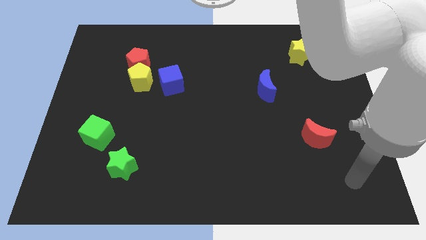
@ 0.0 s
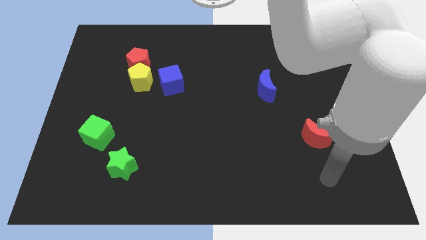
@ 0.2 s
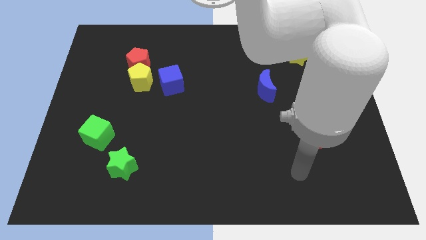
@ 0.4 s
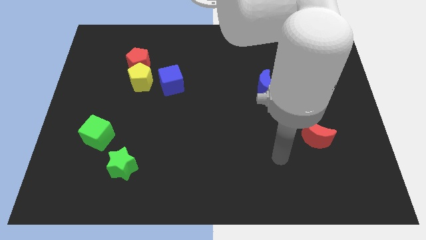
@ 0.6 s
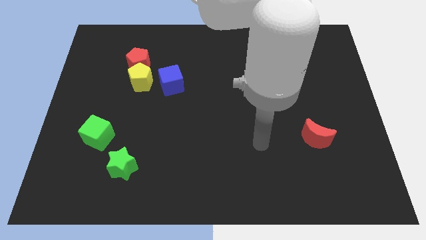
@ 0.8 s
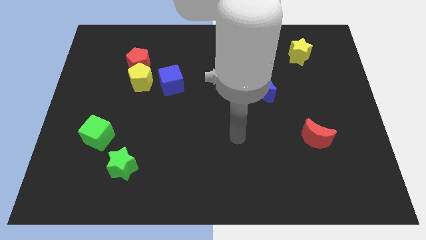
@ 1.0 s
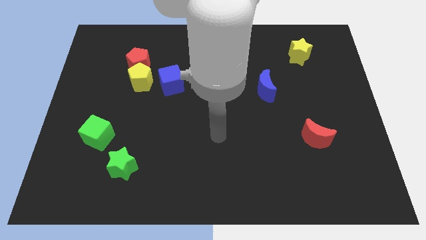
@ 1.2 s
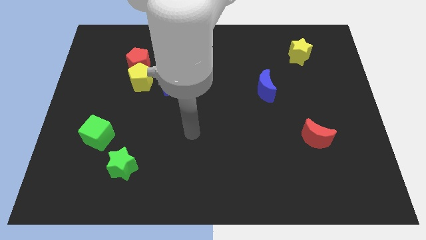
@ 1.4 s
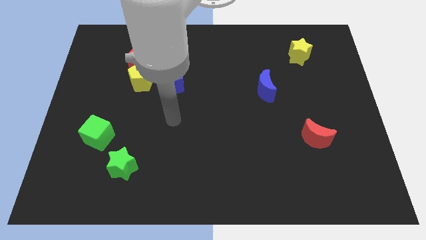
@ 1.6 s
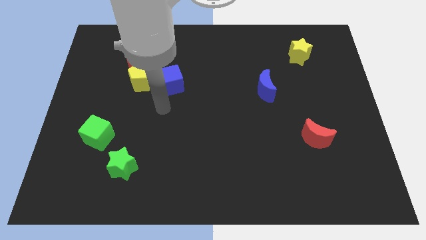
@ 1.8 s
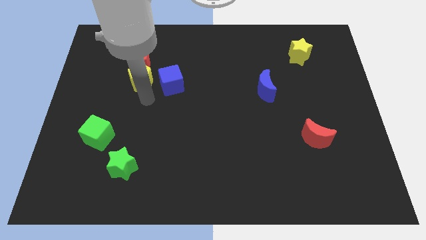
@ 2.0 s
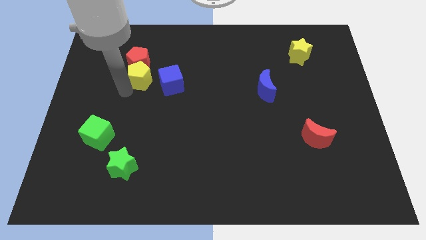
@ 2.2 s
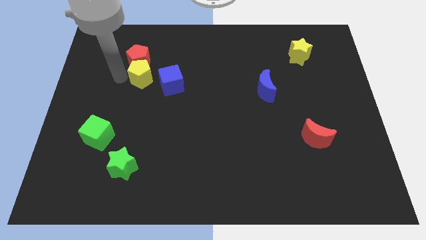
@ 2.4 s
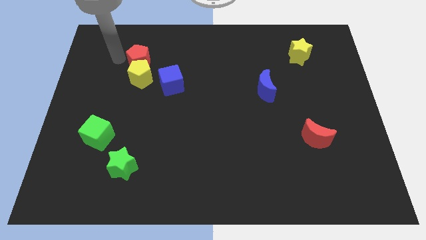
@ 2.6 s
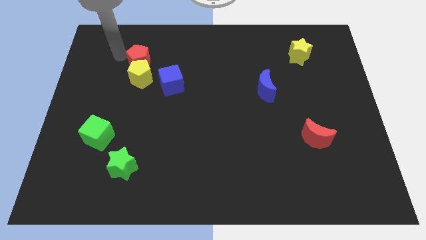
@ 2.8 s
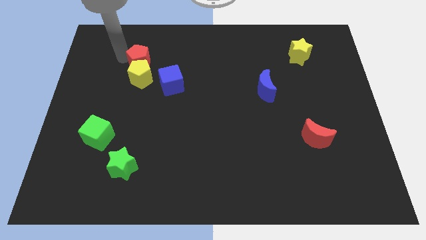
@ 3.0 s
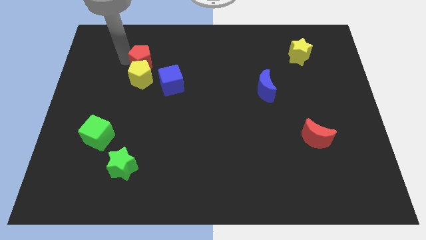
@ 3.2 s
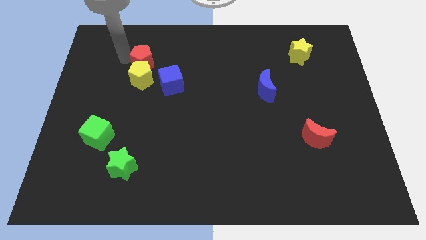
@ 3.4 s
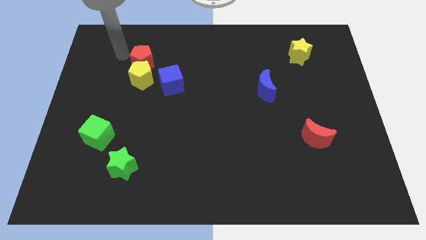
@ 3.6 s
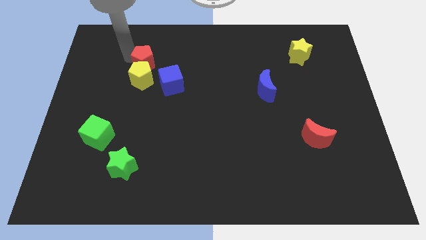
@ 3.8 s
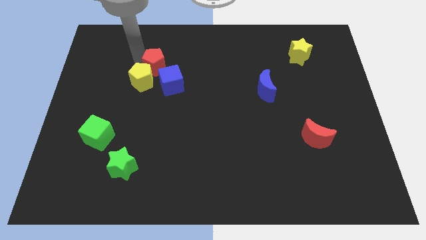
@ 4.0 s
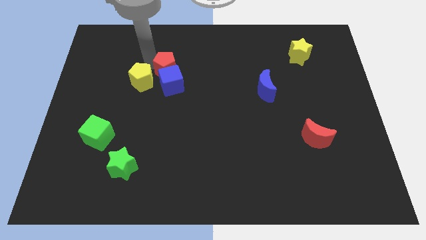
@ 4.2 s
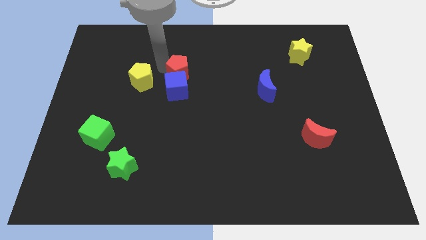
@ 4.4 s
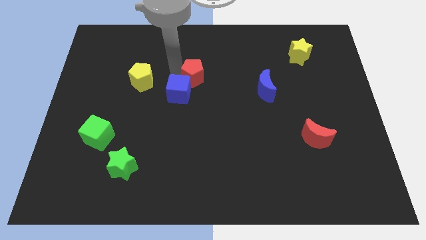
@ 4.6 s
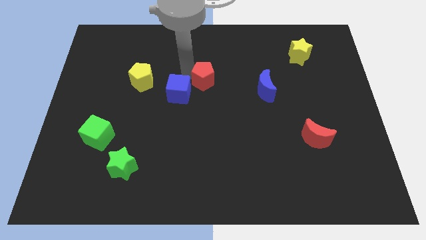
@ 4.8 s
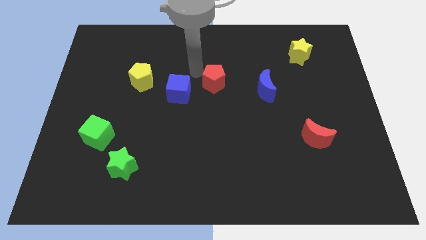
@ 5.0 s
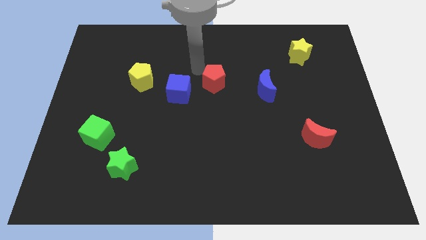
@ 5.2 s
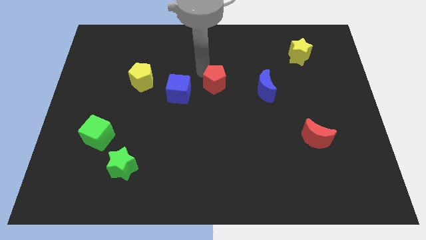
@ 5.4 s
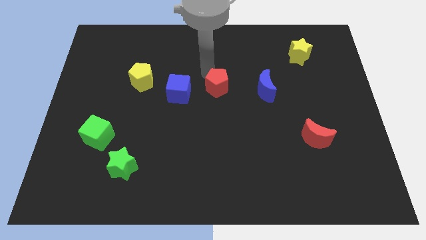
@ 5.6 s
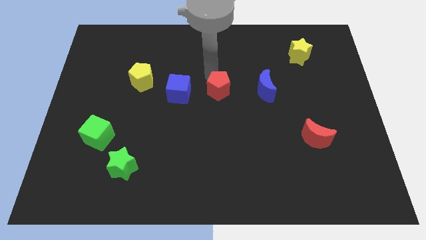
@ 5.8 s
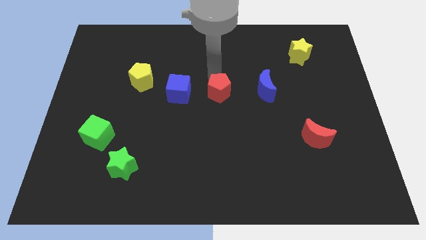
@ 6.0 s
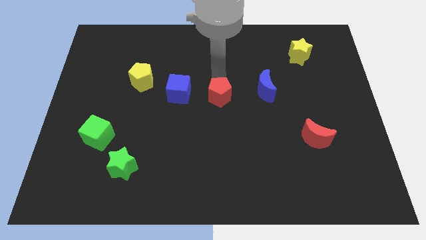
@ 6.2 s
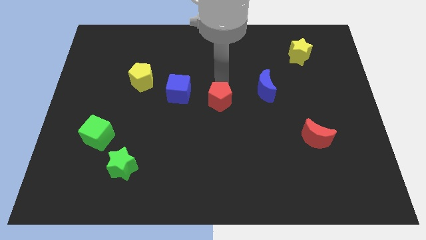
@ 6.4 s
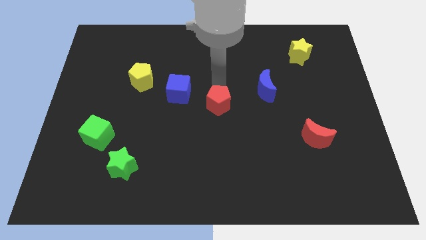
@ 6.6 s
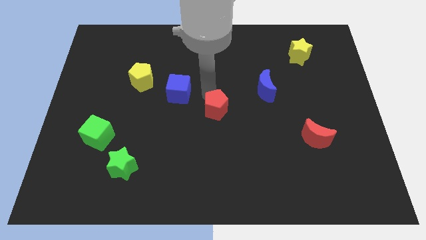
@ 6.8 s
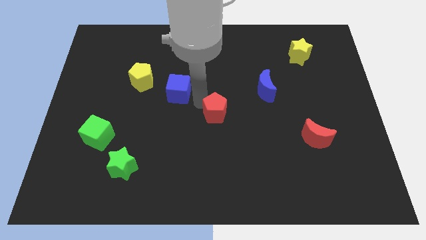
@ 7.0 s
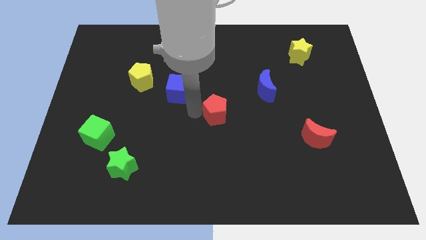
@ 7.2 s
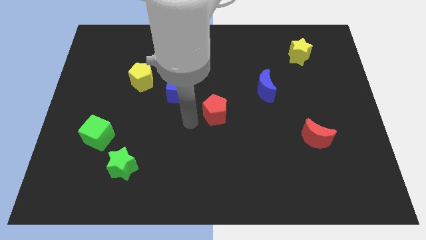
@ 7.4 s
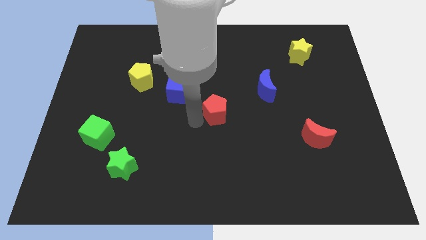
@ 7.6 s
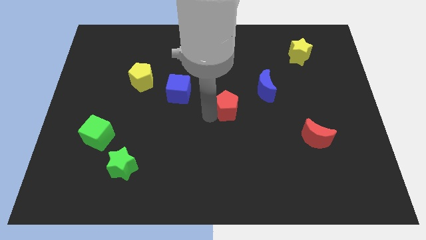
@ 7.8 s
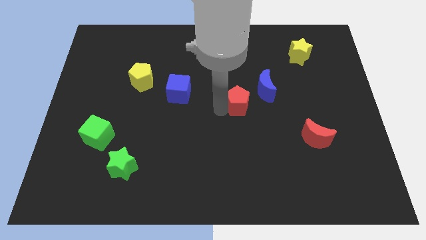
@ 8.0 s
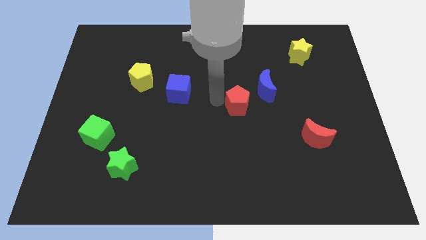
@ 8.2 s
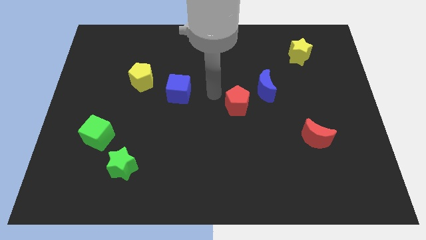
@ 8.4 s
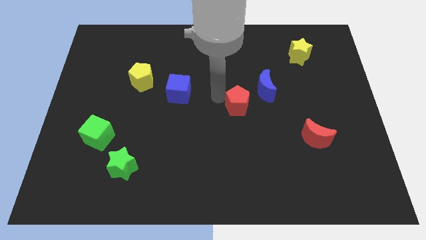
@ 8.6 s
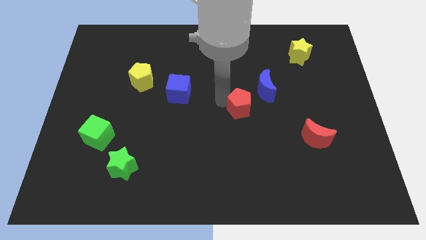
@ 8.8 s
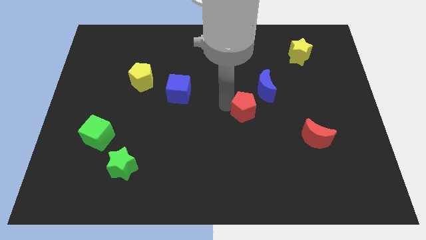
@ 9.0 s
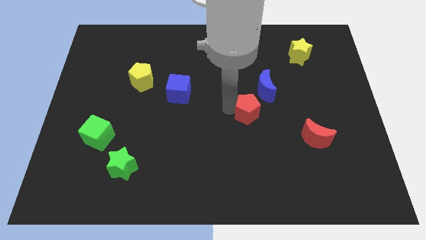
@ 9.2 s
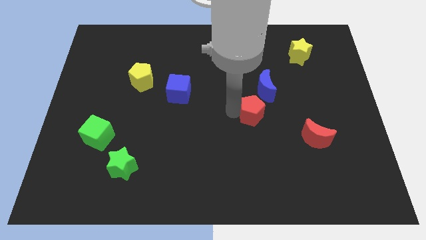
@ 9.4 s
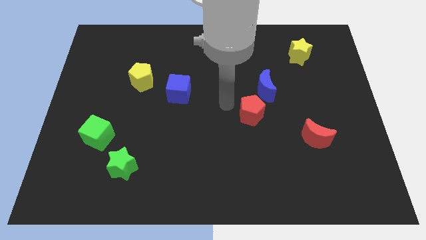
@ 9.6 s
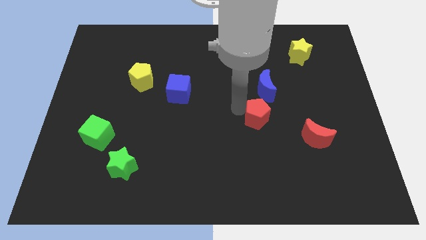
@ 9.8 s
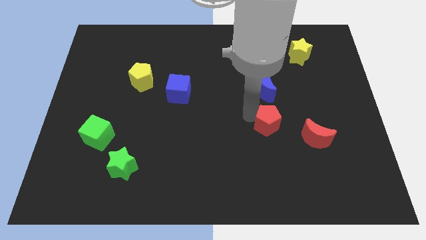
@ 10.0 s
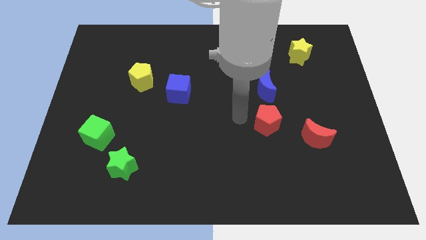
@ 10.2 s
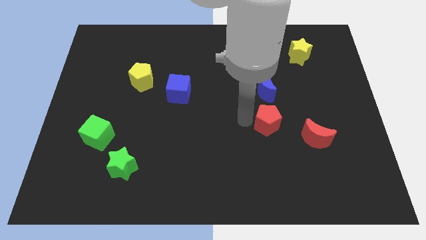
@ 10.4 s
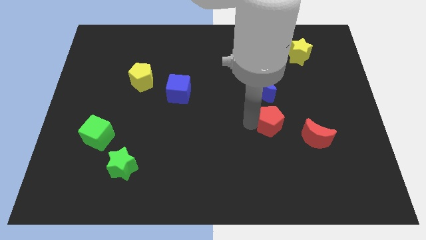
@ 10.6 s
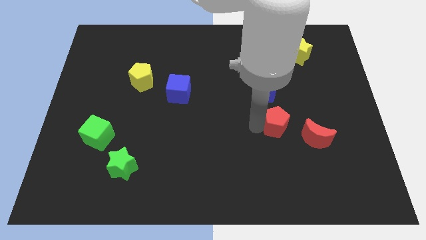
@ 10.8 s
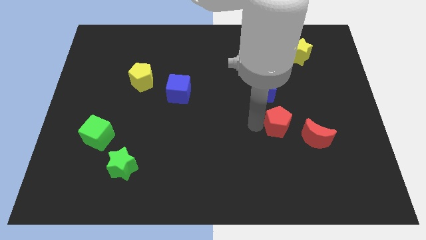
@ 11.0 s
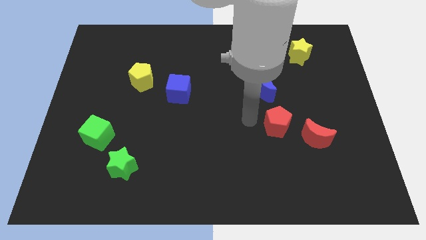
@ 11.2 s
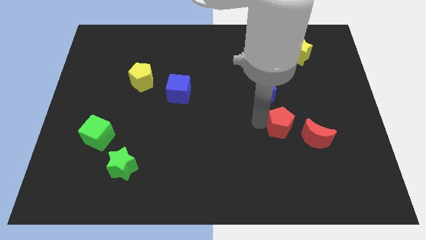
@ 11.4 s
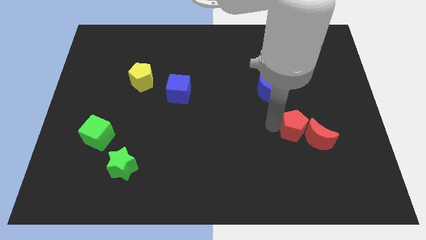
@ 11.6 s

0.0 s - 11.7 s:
put the red pentagon close to the red moon
